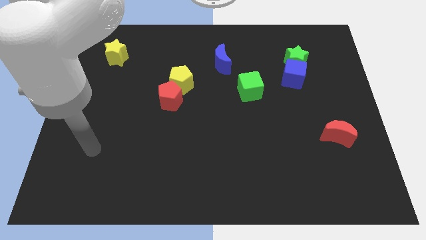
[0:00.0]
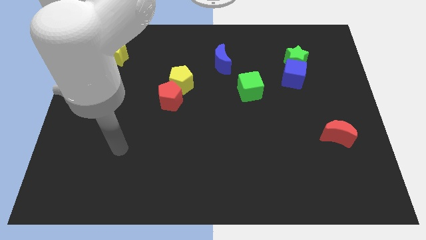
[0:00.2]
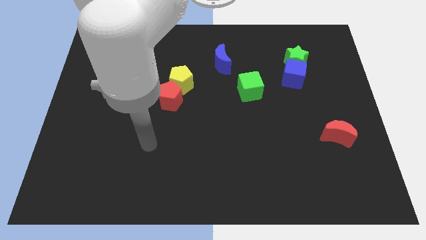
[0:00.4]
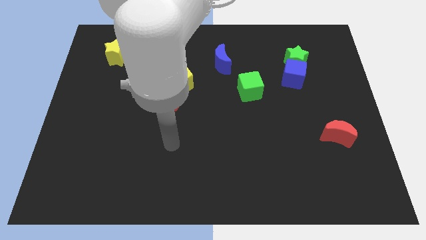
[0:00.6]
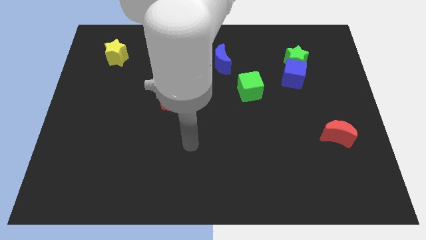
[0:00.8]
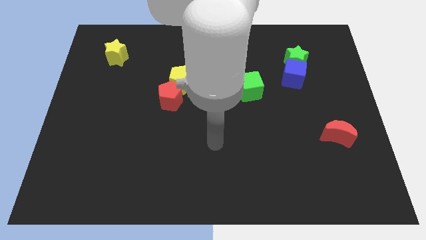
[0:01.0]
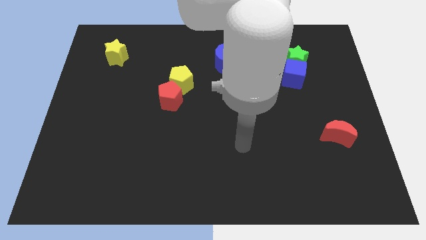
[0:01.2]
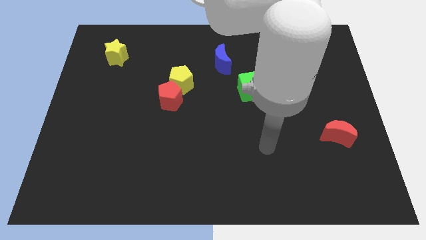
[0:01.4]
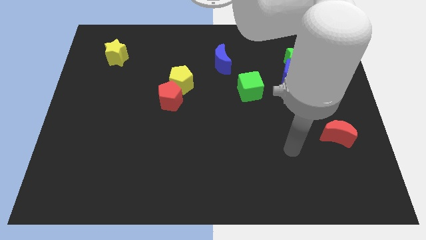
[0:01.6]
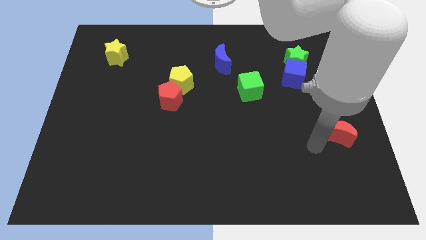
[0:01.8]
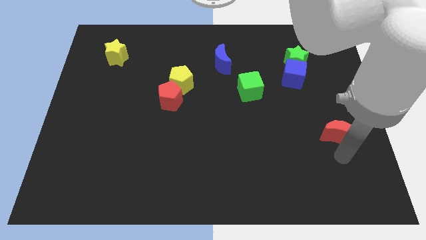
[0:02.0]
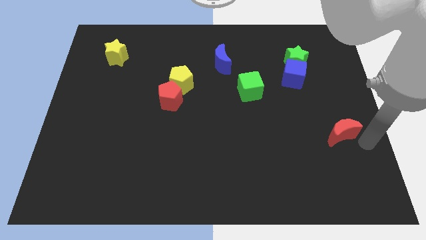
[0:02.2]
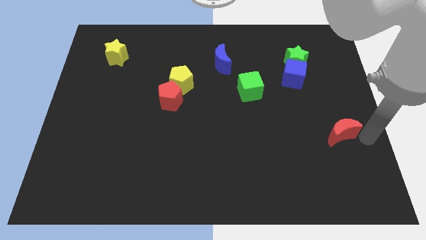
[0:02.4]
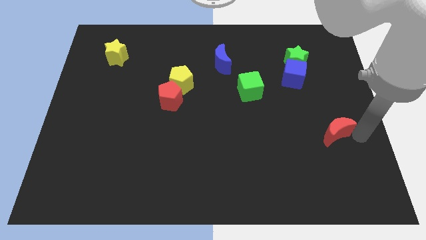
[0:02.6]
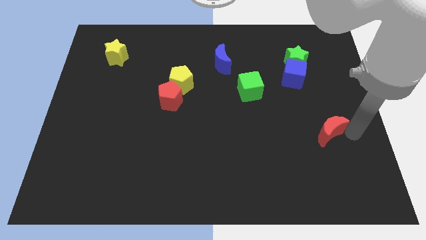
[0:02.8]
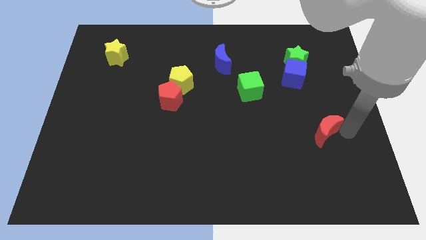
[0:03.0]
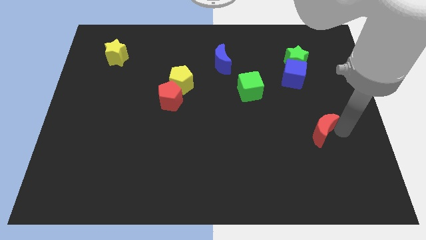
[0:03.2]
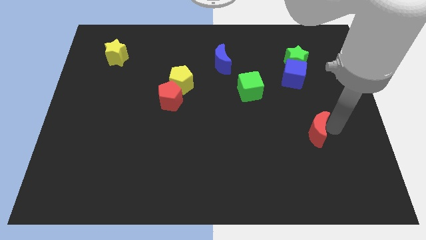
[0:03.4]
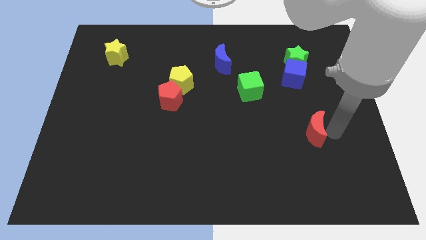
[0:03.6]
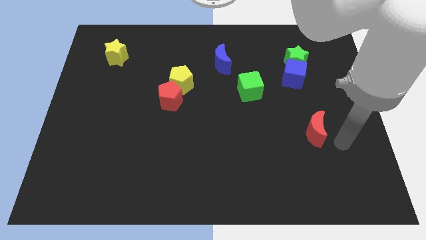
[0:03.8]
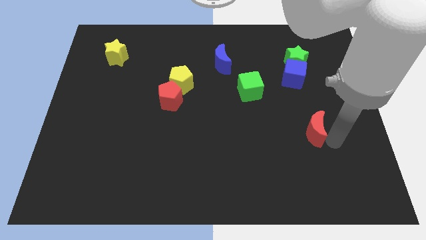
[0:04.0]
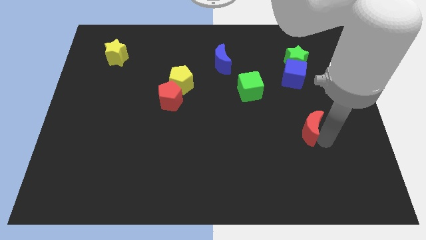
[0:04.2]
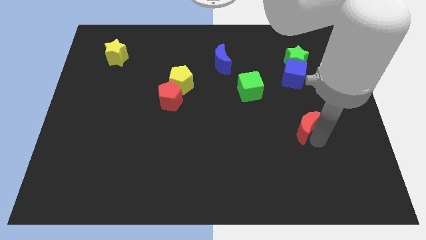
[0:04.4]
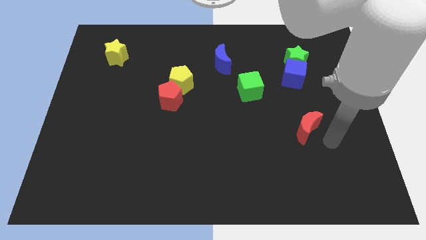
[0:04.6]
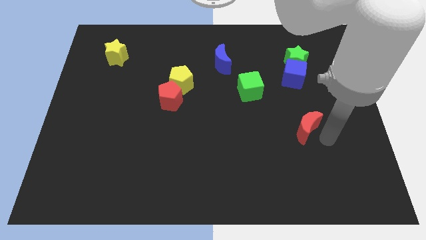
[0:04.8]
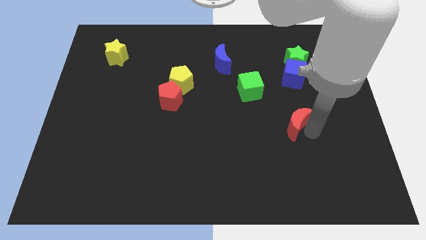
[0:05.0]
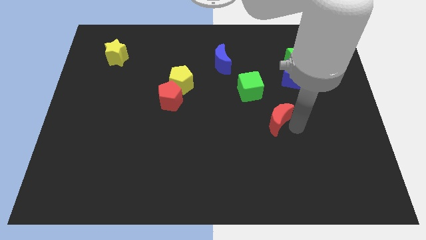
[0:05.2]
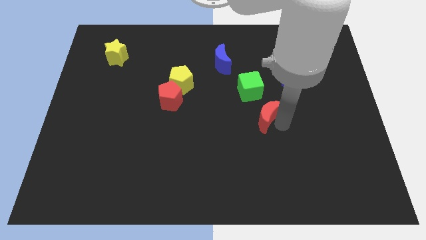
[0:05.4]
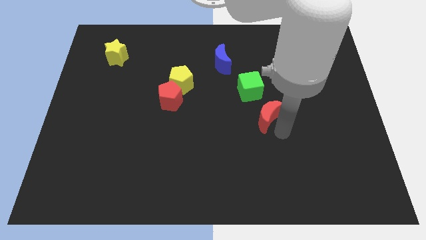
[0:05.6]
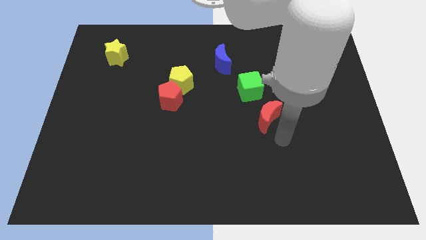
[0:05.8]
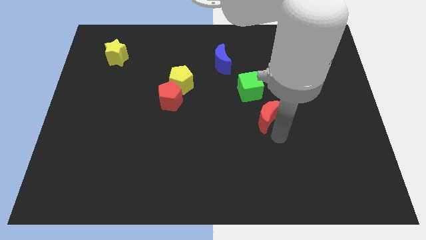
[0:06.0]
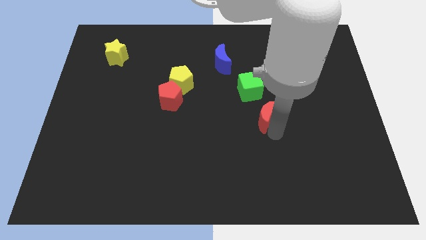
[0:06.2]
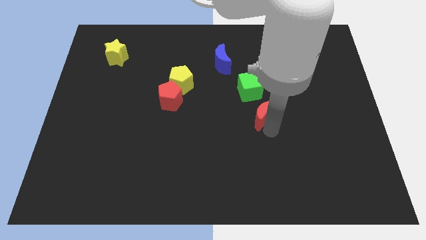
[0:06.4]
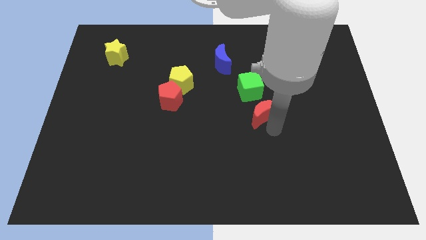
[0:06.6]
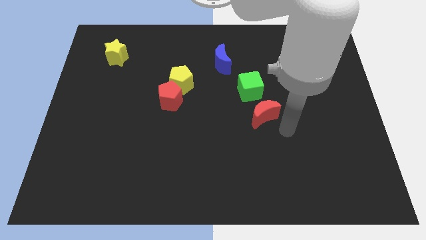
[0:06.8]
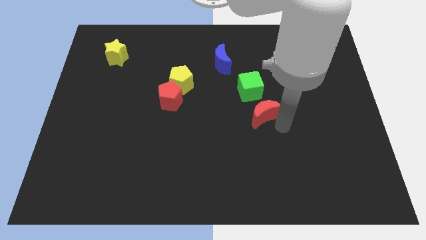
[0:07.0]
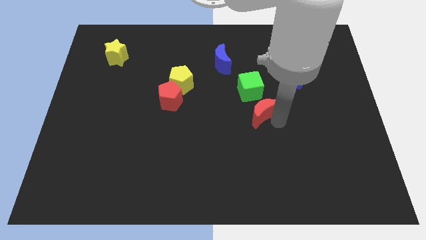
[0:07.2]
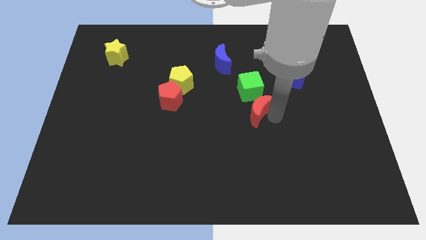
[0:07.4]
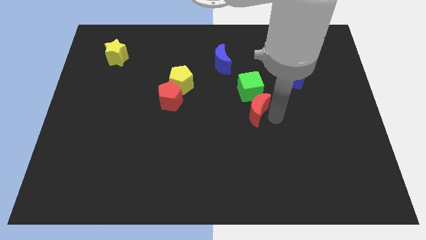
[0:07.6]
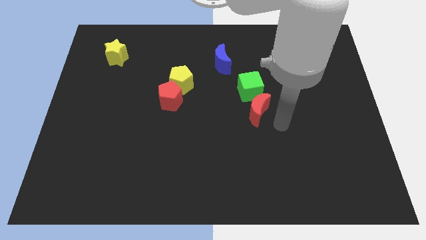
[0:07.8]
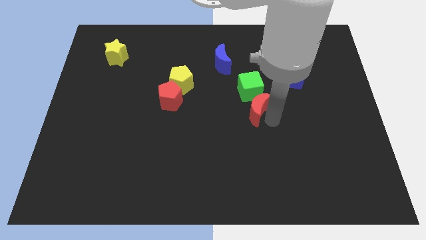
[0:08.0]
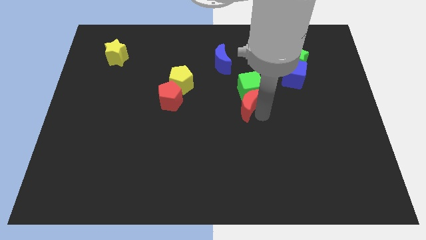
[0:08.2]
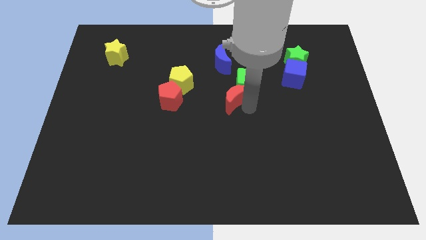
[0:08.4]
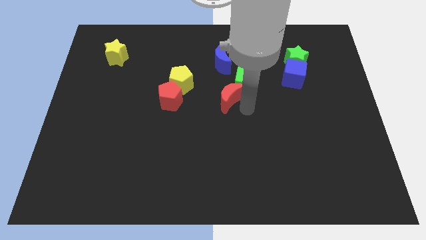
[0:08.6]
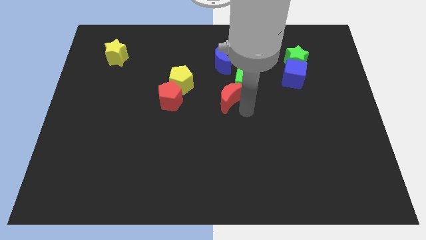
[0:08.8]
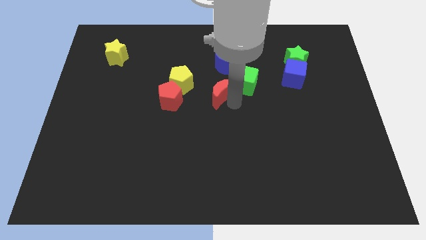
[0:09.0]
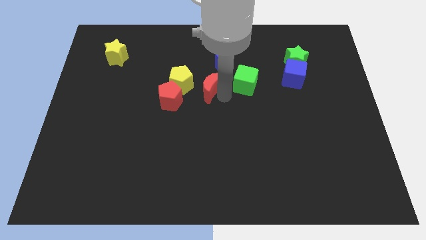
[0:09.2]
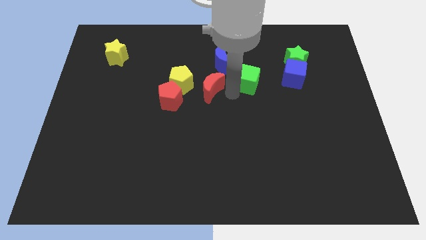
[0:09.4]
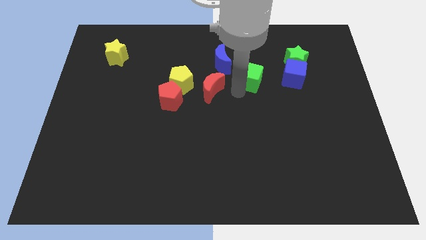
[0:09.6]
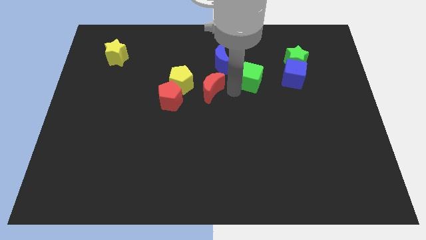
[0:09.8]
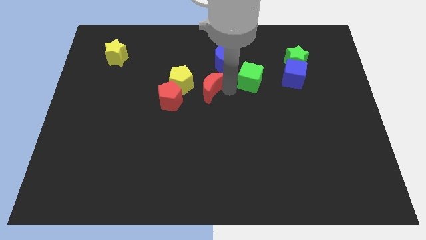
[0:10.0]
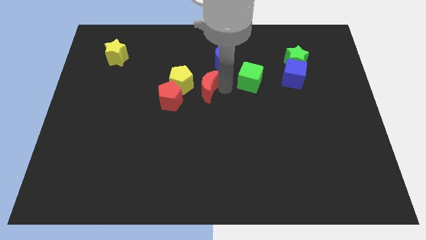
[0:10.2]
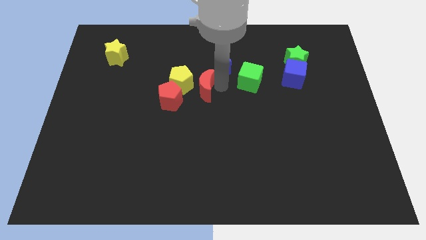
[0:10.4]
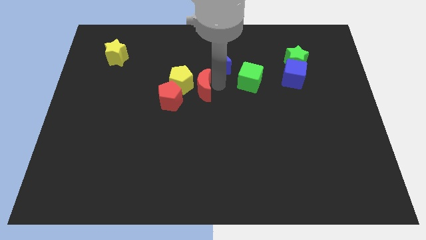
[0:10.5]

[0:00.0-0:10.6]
put the red moon to the yellow pentagon

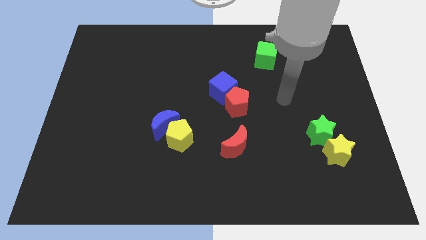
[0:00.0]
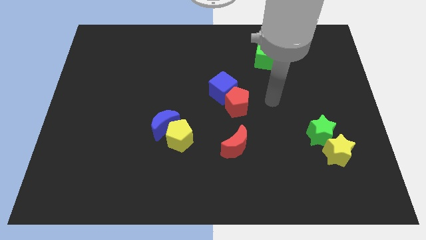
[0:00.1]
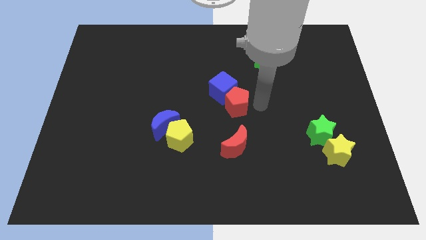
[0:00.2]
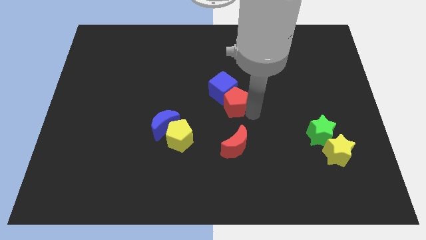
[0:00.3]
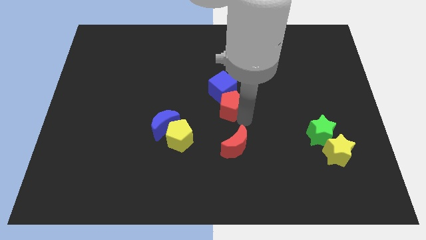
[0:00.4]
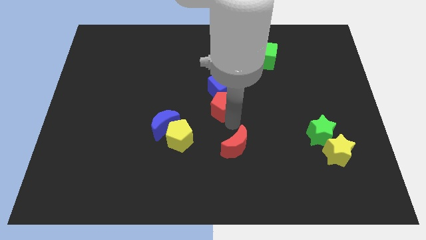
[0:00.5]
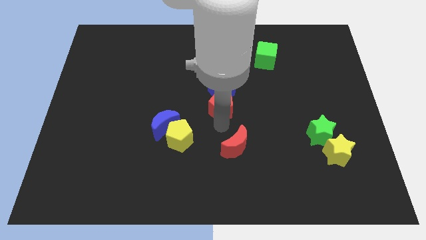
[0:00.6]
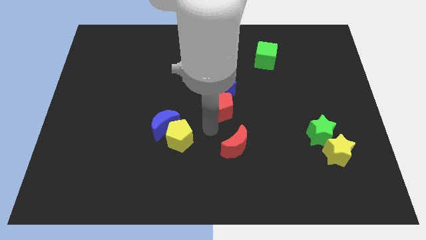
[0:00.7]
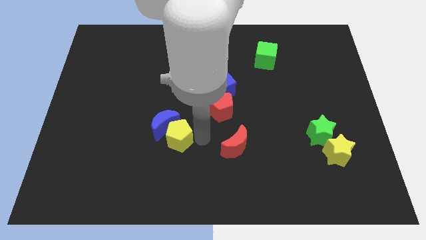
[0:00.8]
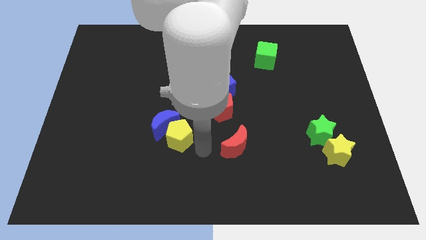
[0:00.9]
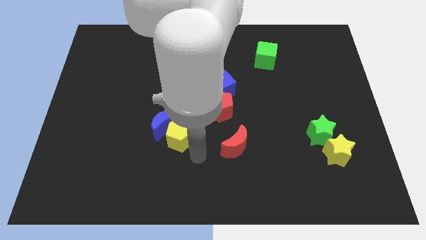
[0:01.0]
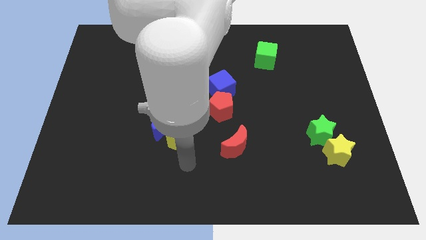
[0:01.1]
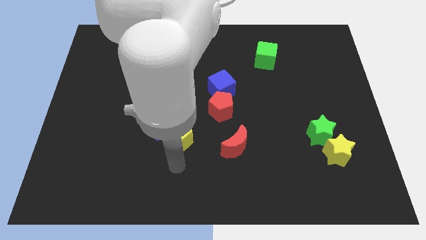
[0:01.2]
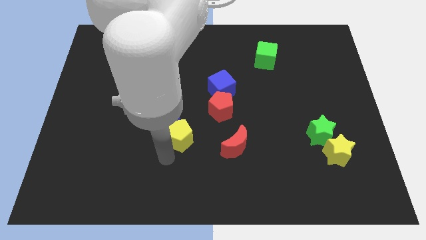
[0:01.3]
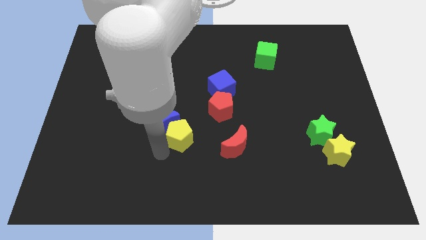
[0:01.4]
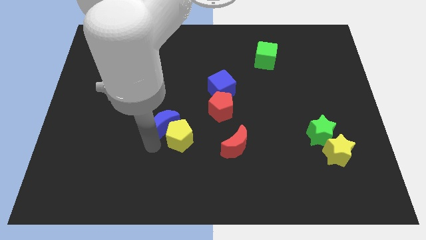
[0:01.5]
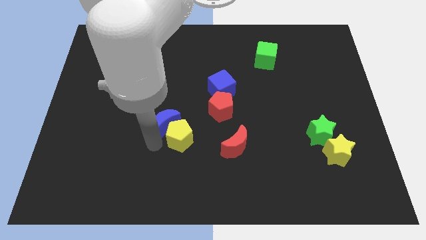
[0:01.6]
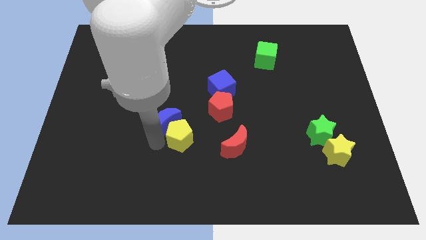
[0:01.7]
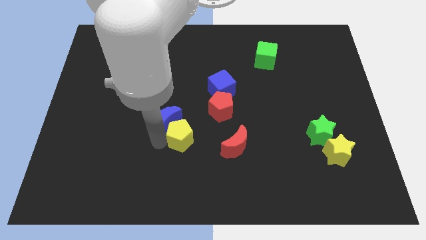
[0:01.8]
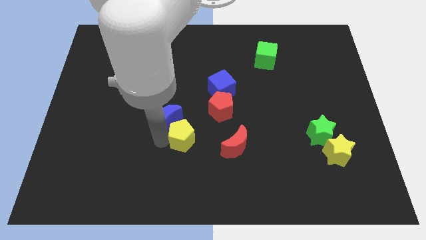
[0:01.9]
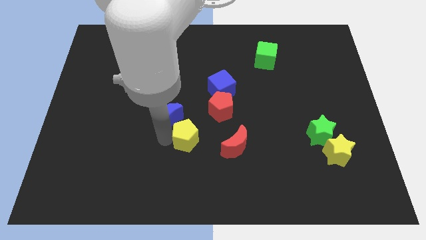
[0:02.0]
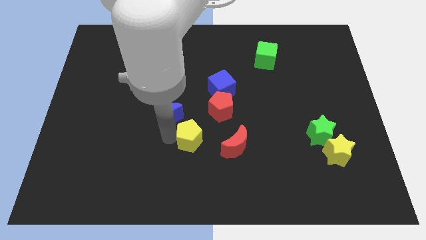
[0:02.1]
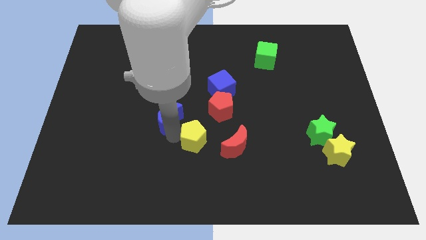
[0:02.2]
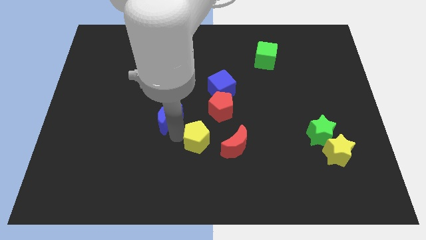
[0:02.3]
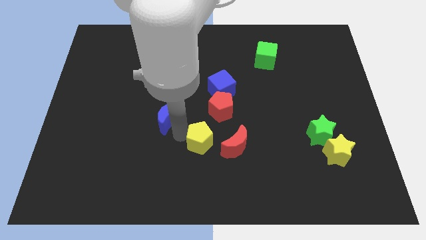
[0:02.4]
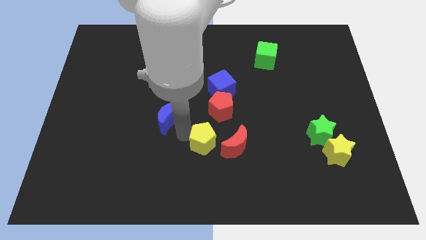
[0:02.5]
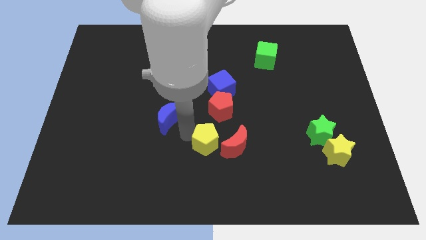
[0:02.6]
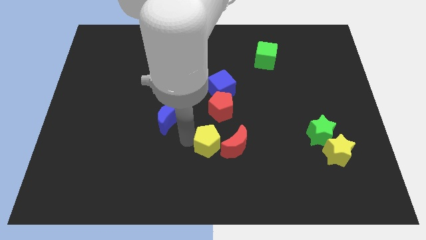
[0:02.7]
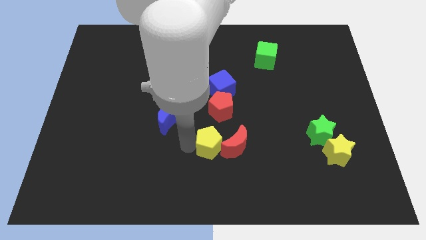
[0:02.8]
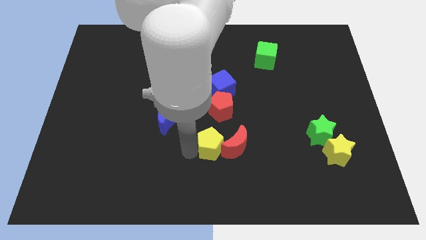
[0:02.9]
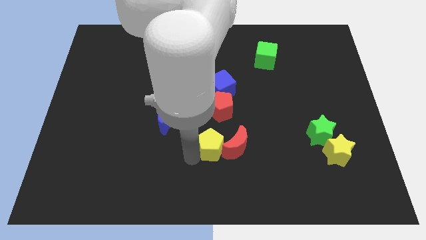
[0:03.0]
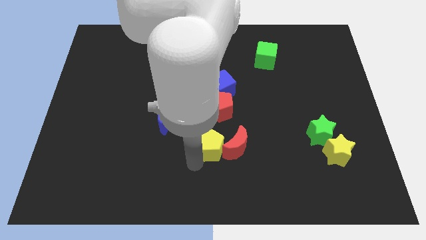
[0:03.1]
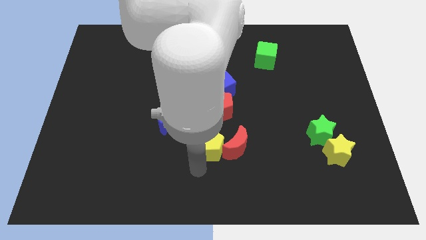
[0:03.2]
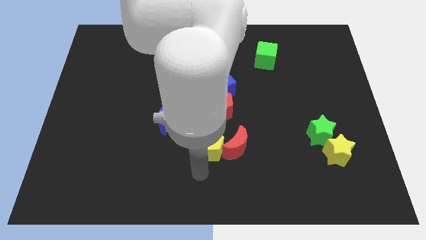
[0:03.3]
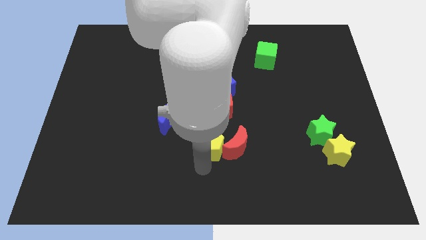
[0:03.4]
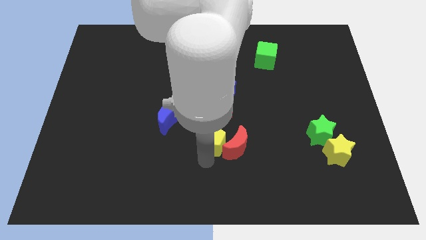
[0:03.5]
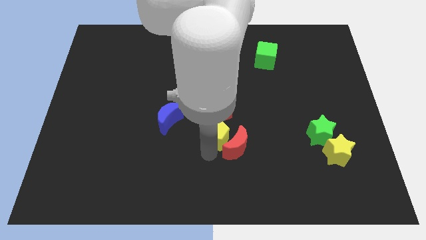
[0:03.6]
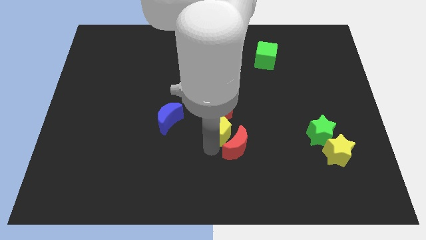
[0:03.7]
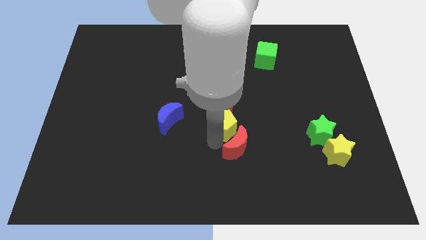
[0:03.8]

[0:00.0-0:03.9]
push the yellow pentagon to the red pentagon
